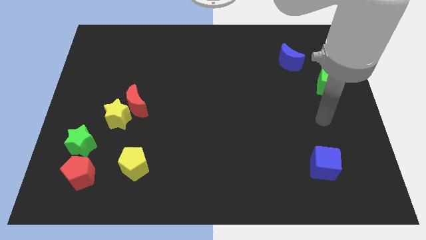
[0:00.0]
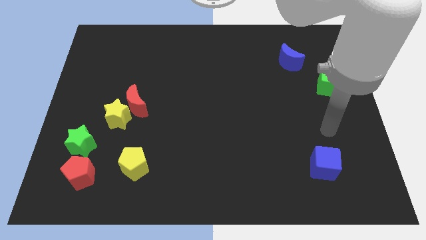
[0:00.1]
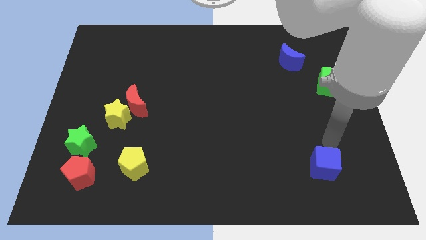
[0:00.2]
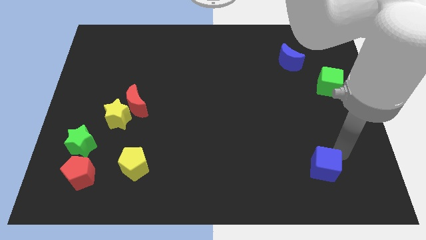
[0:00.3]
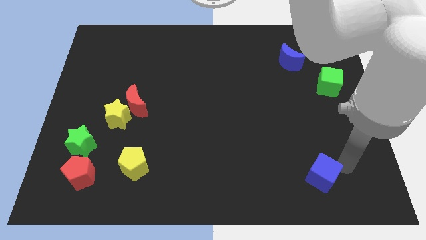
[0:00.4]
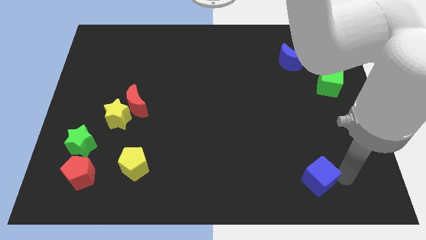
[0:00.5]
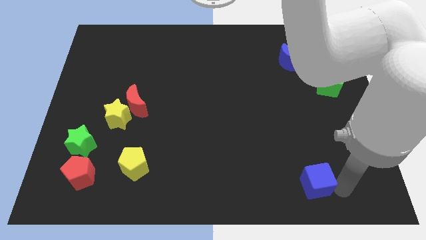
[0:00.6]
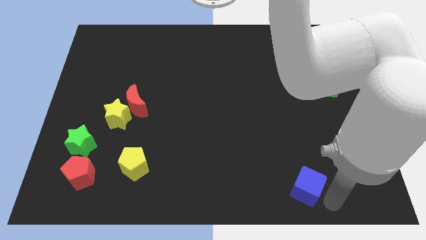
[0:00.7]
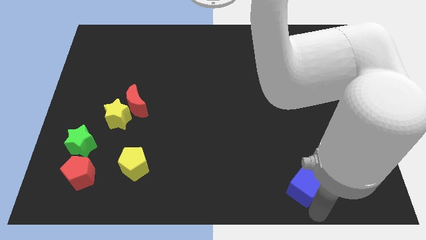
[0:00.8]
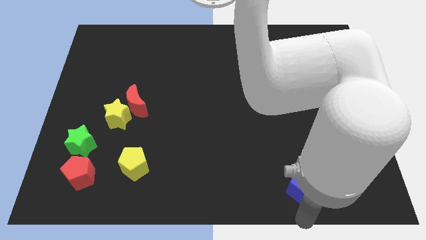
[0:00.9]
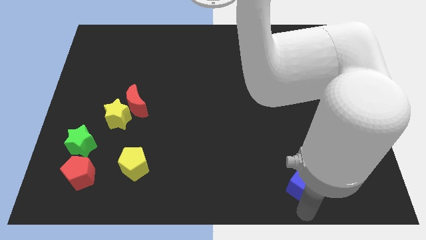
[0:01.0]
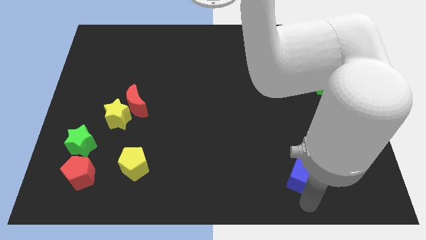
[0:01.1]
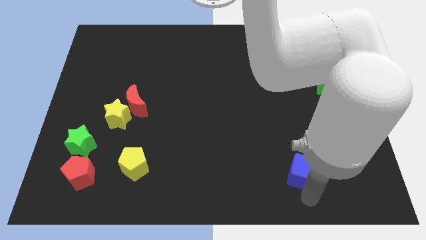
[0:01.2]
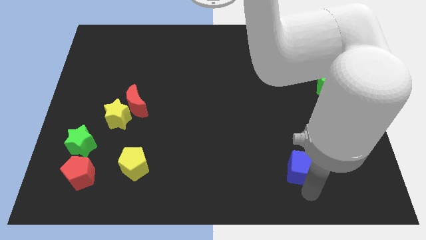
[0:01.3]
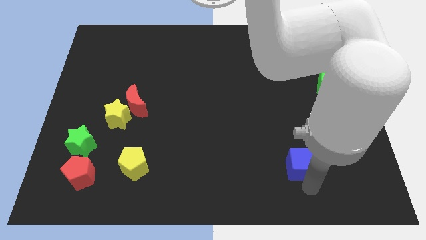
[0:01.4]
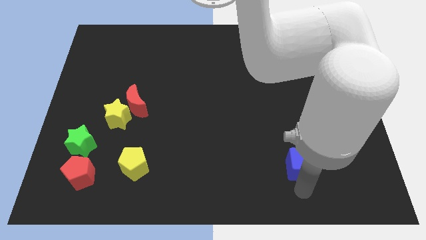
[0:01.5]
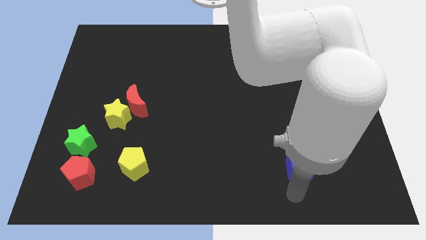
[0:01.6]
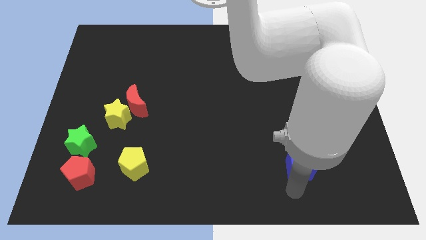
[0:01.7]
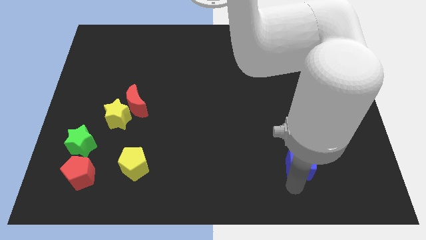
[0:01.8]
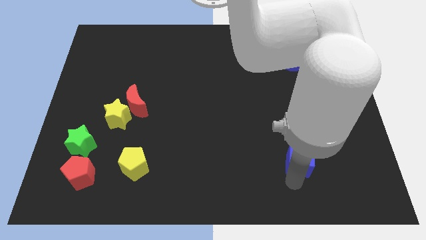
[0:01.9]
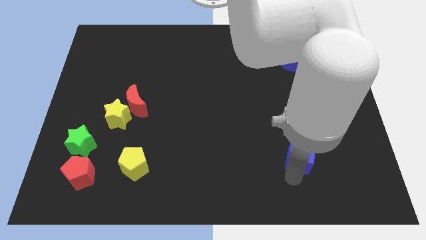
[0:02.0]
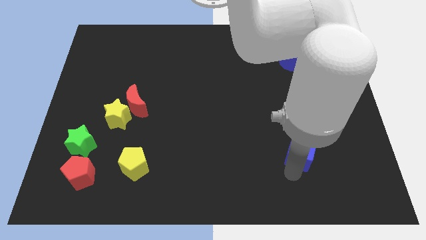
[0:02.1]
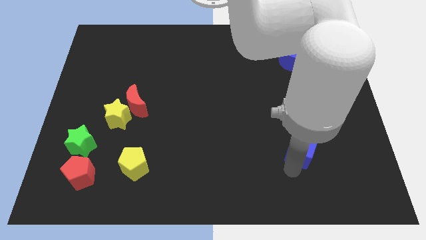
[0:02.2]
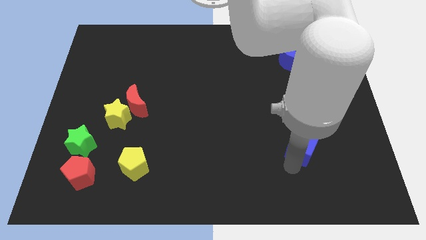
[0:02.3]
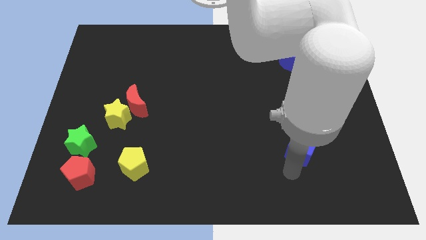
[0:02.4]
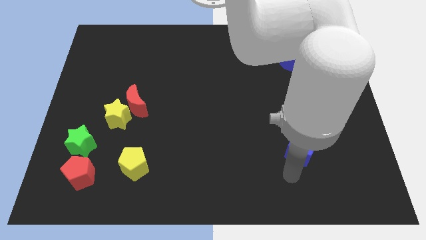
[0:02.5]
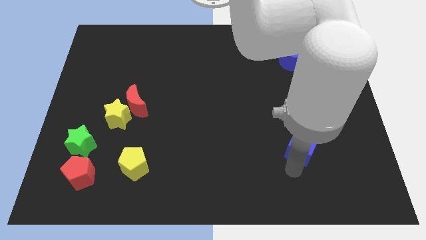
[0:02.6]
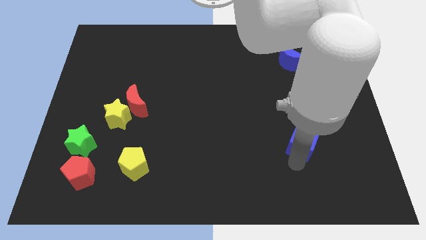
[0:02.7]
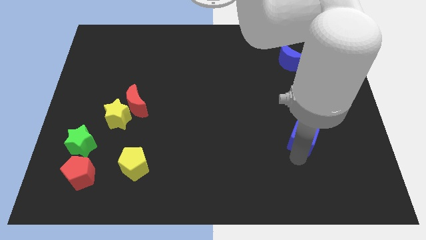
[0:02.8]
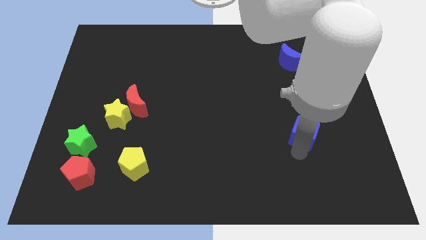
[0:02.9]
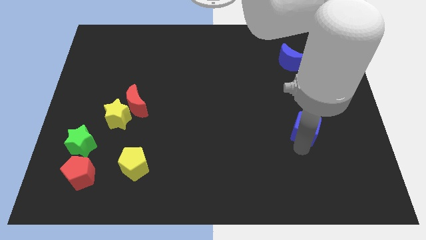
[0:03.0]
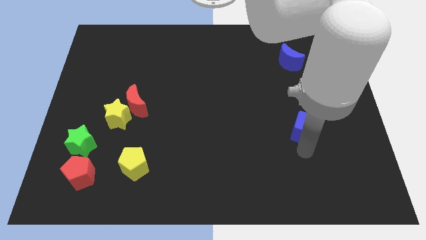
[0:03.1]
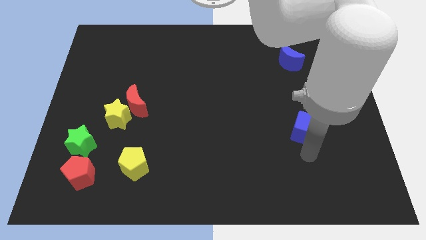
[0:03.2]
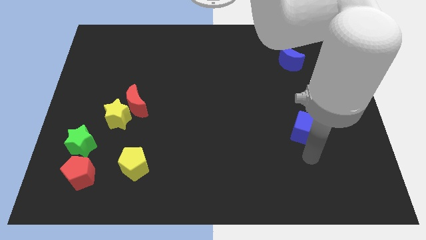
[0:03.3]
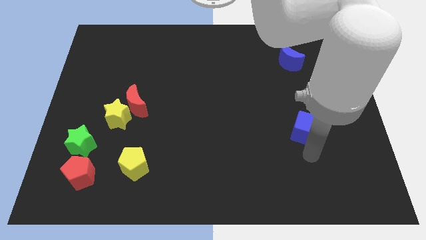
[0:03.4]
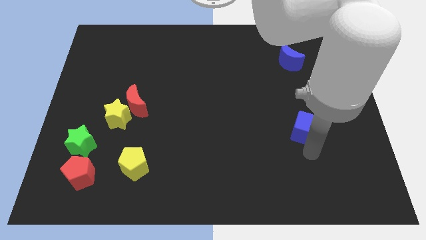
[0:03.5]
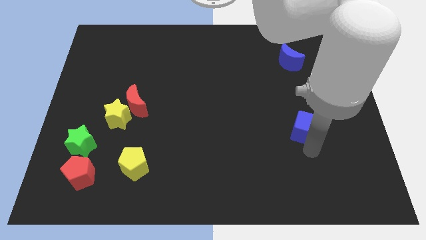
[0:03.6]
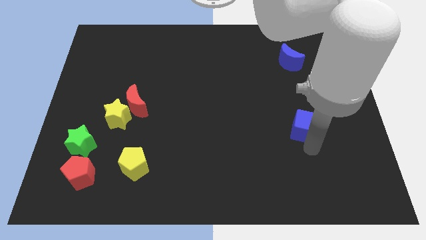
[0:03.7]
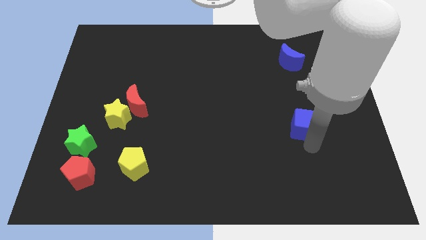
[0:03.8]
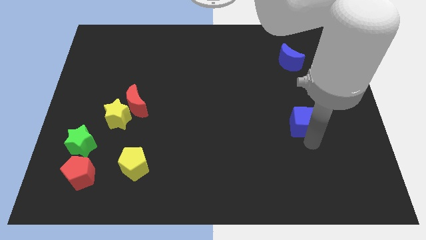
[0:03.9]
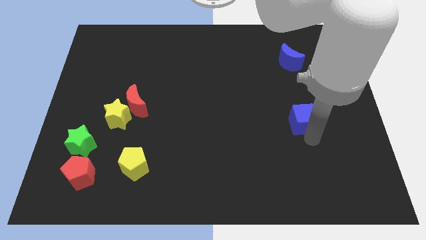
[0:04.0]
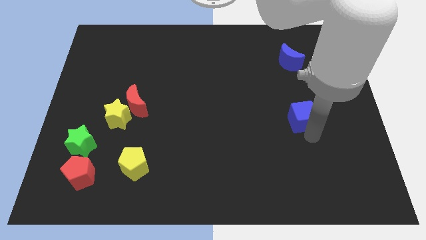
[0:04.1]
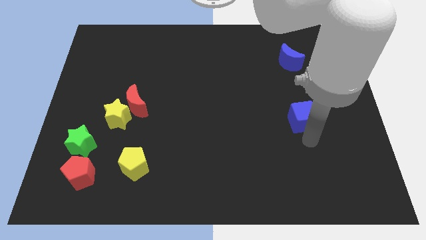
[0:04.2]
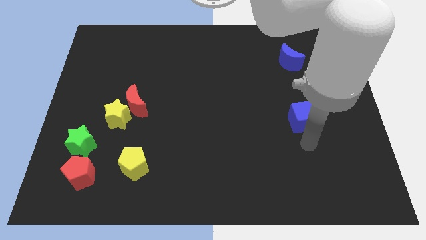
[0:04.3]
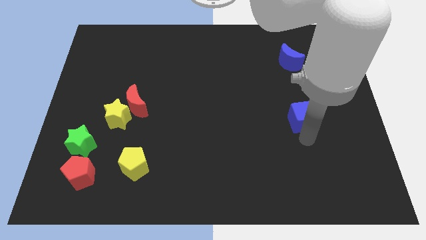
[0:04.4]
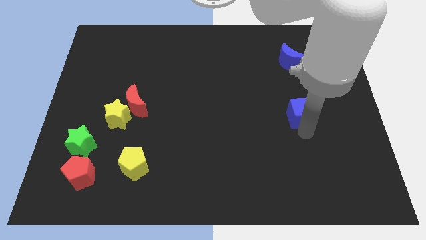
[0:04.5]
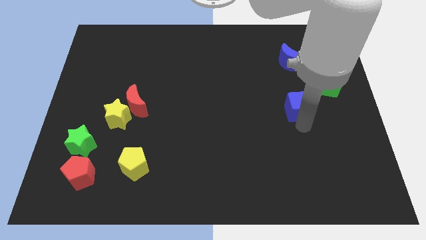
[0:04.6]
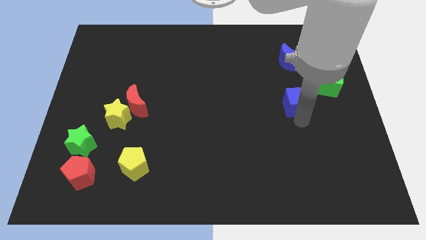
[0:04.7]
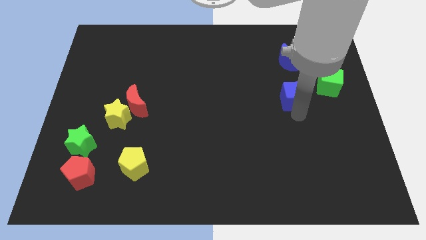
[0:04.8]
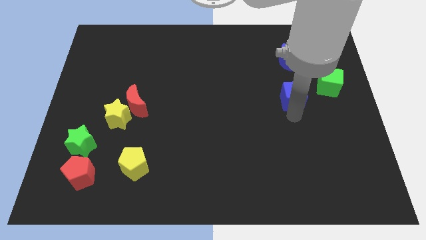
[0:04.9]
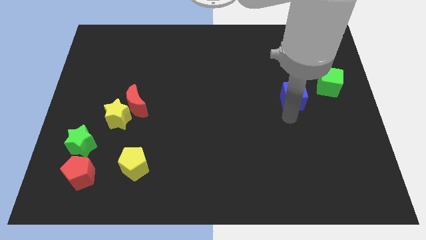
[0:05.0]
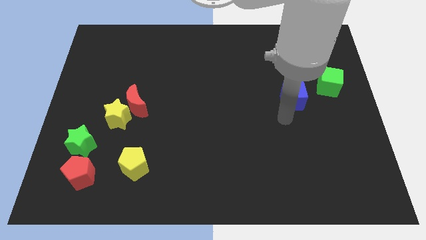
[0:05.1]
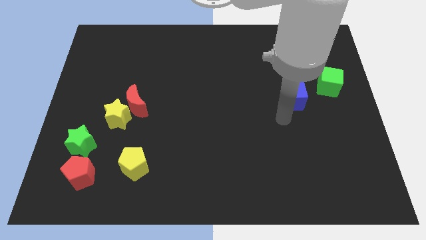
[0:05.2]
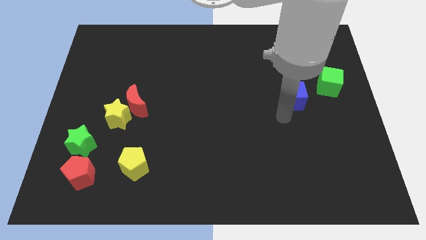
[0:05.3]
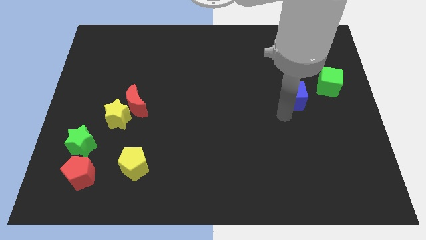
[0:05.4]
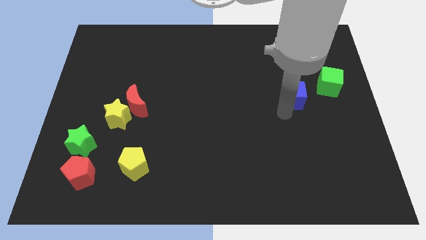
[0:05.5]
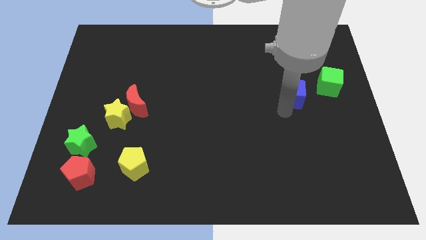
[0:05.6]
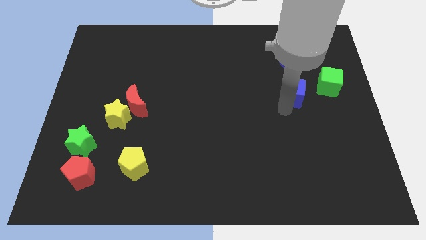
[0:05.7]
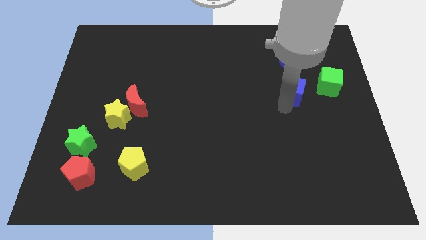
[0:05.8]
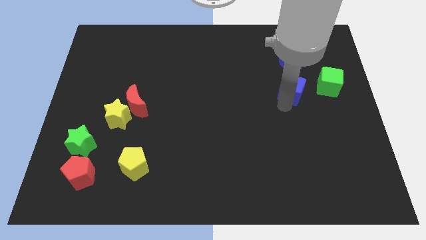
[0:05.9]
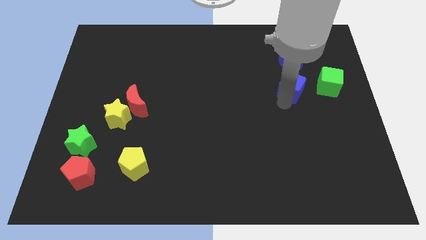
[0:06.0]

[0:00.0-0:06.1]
move the blue cube upwards

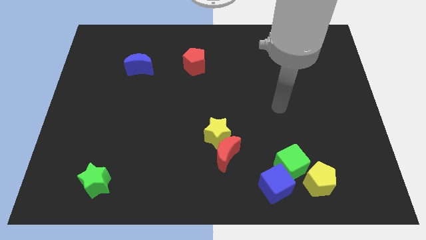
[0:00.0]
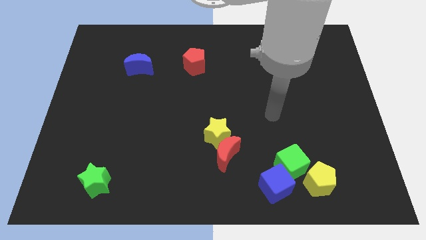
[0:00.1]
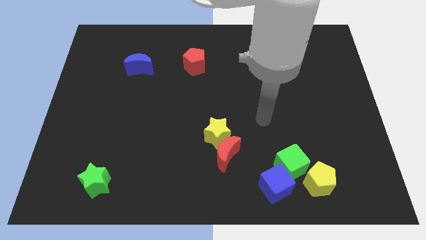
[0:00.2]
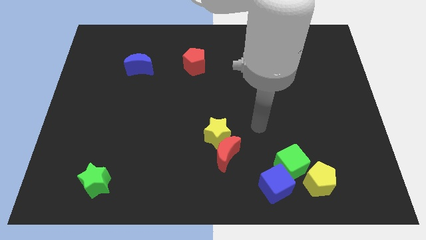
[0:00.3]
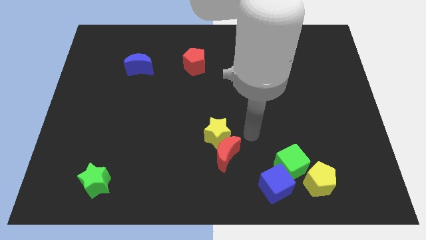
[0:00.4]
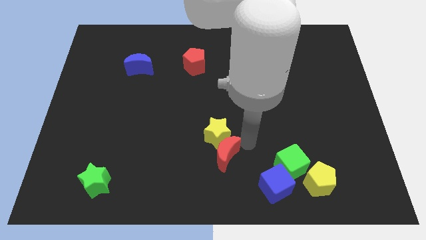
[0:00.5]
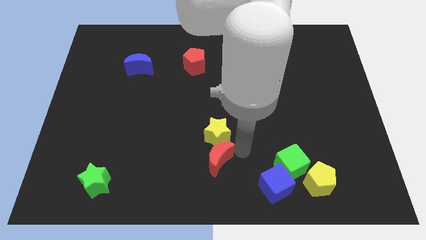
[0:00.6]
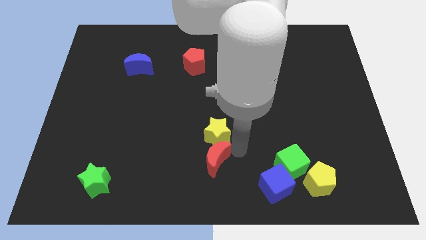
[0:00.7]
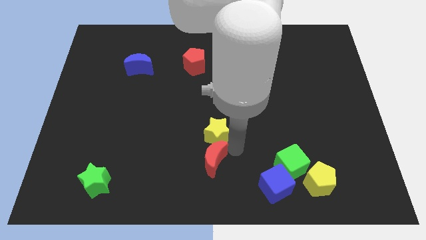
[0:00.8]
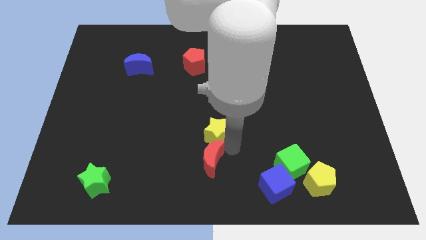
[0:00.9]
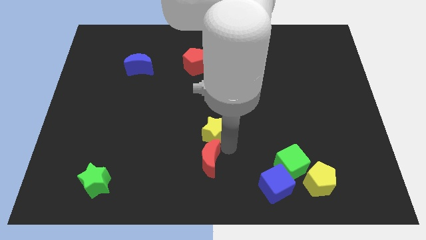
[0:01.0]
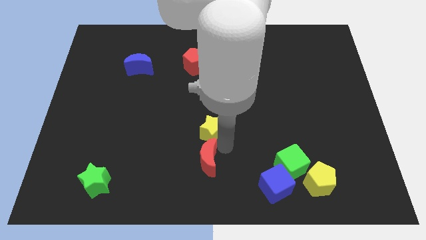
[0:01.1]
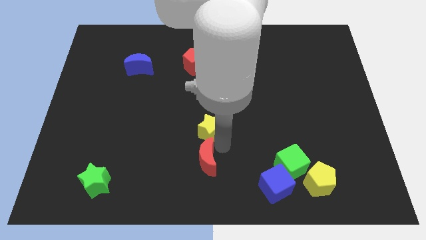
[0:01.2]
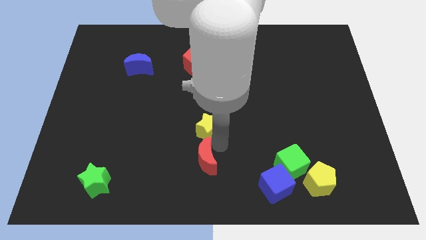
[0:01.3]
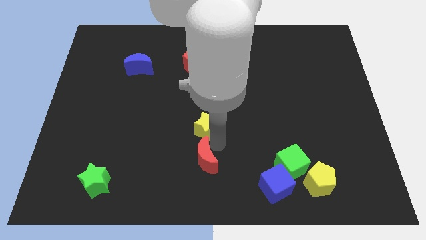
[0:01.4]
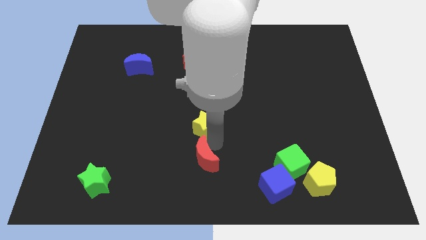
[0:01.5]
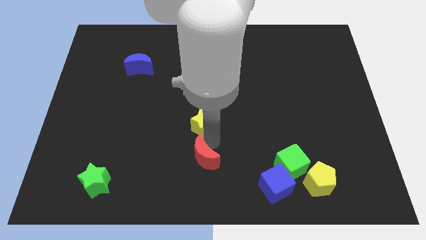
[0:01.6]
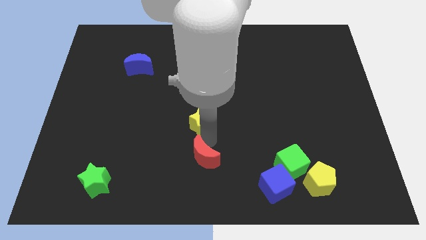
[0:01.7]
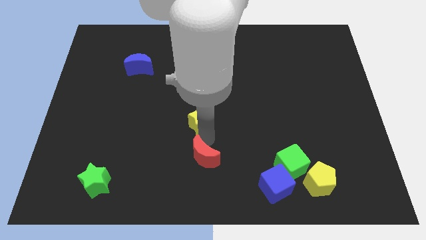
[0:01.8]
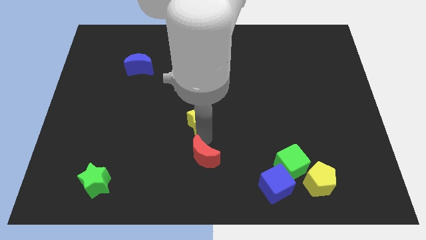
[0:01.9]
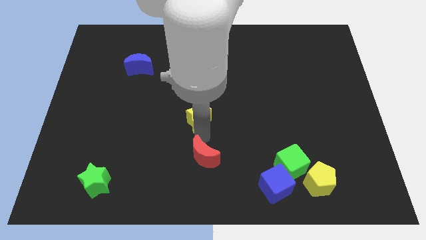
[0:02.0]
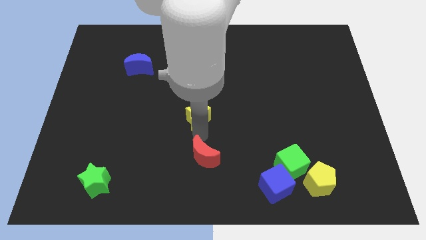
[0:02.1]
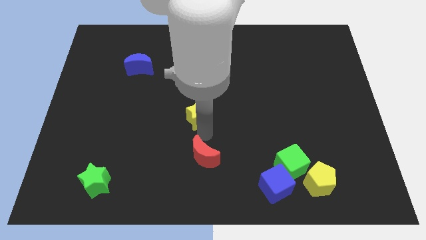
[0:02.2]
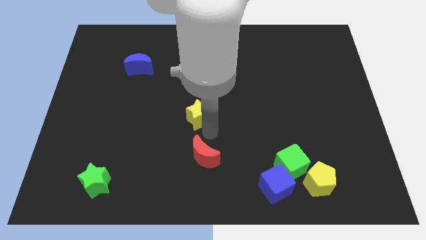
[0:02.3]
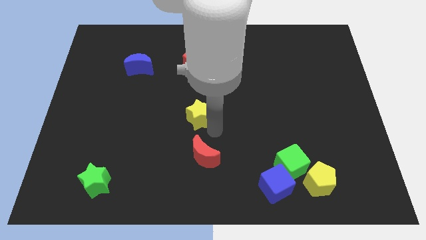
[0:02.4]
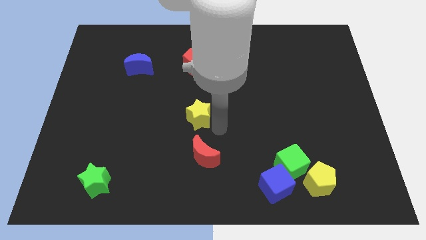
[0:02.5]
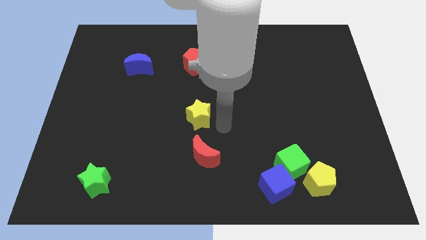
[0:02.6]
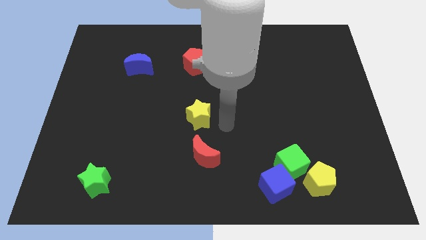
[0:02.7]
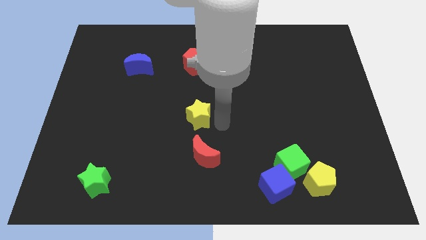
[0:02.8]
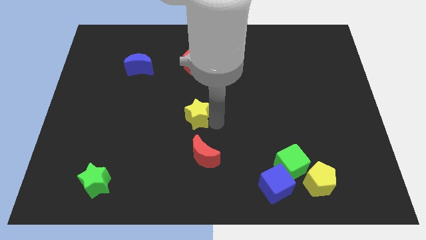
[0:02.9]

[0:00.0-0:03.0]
slightly move the yellow star upwards and to the left
